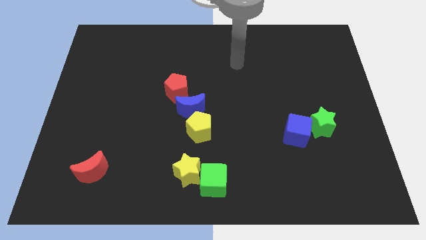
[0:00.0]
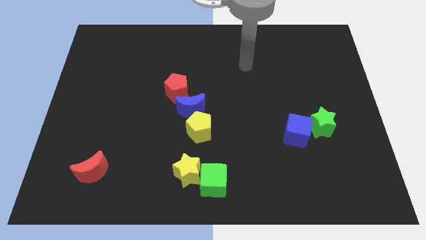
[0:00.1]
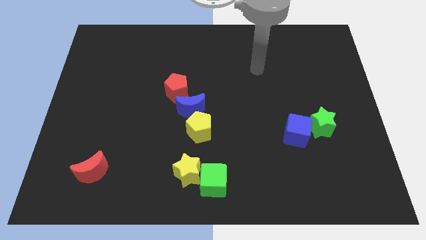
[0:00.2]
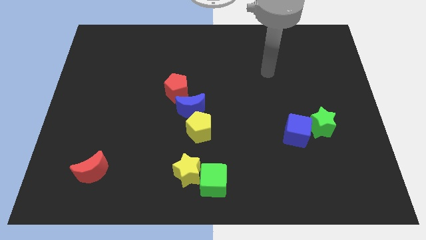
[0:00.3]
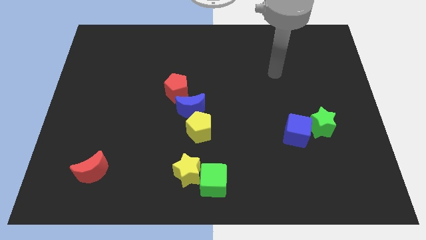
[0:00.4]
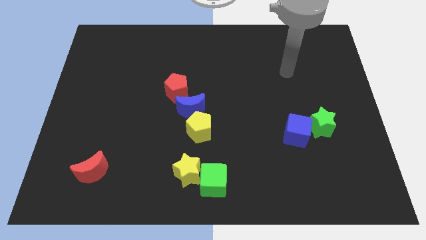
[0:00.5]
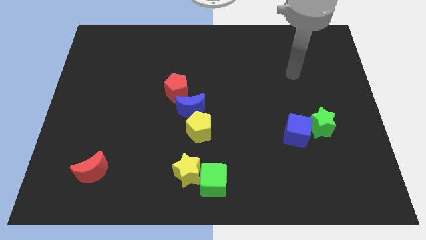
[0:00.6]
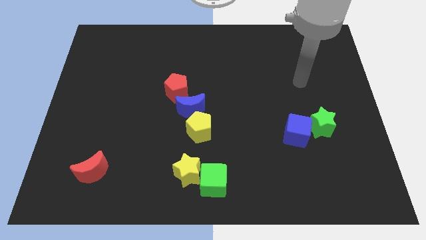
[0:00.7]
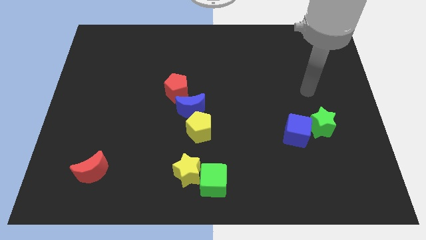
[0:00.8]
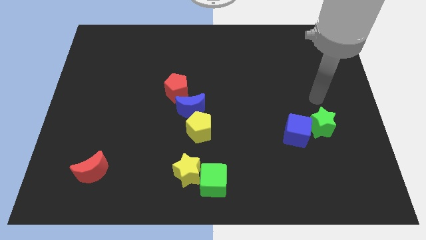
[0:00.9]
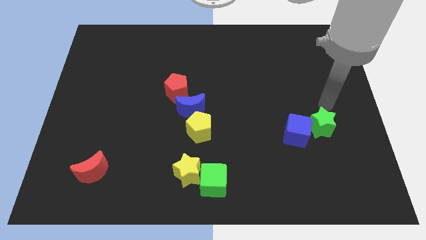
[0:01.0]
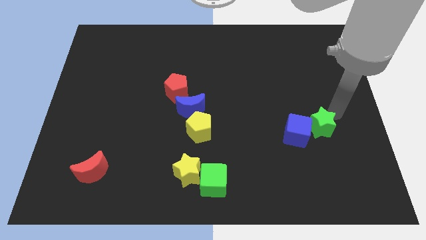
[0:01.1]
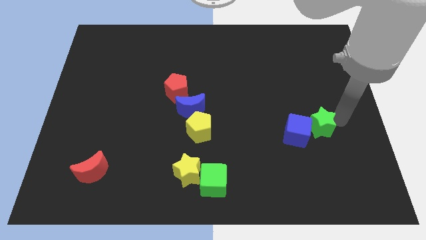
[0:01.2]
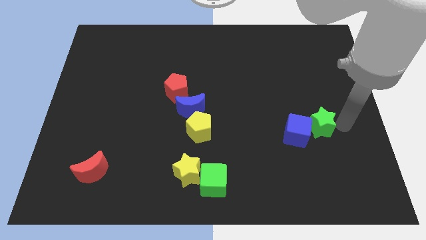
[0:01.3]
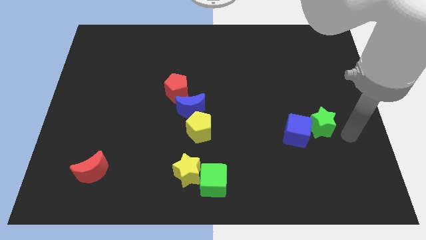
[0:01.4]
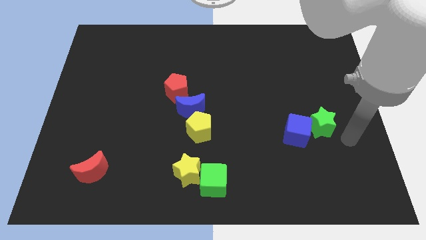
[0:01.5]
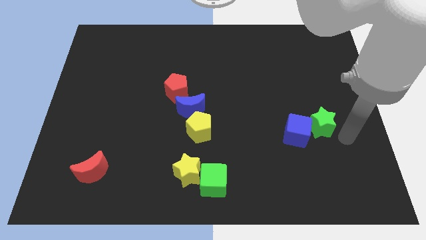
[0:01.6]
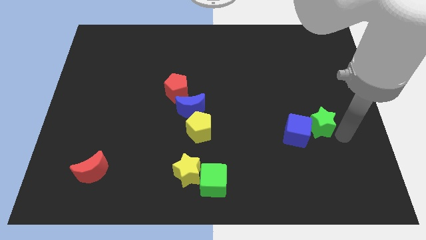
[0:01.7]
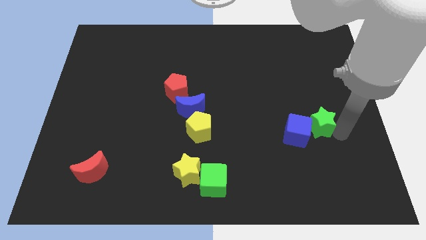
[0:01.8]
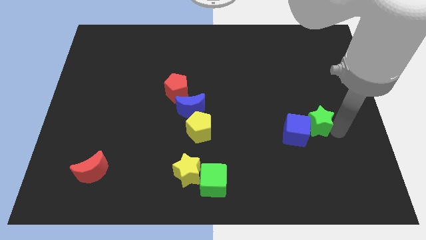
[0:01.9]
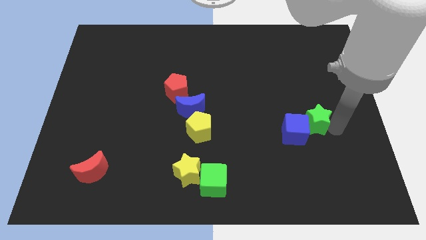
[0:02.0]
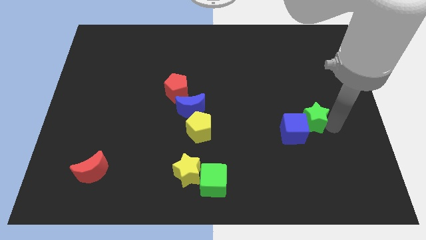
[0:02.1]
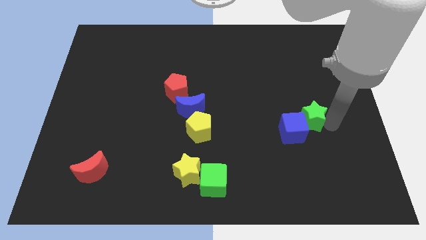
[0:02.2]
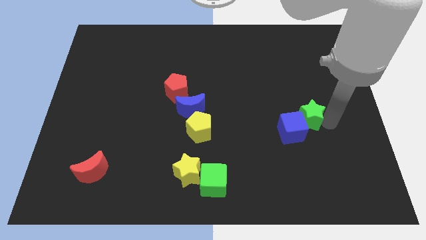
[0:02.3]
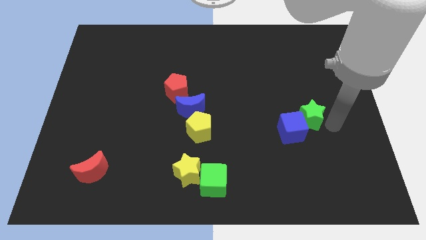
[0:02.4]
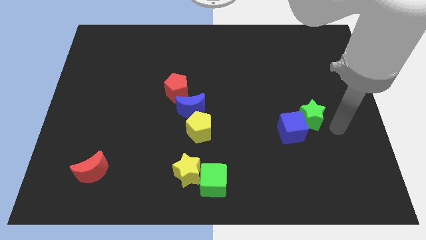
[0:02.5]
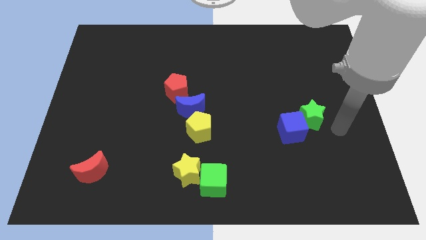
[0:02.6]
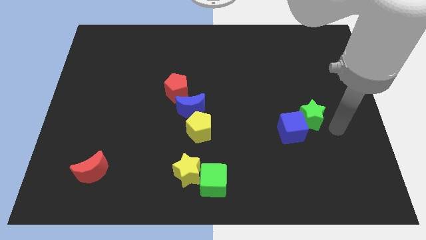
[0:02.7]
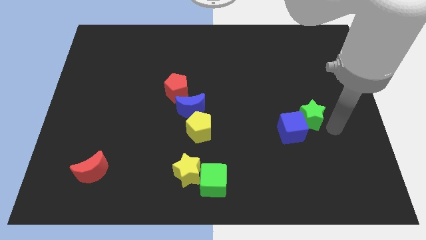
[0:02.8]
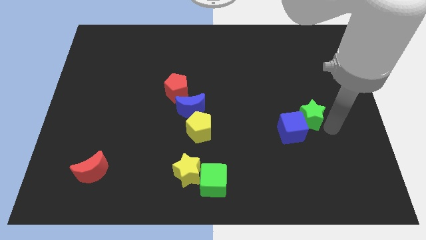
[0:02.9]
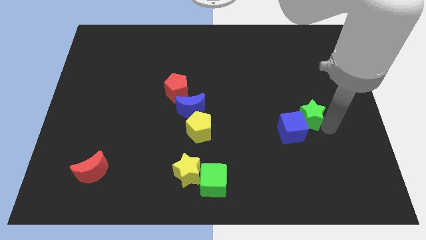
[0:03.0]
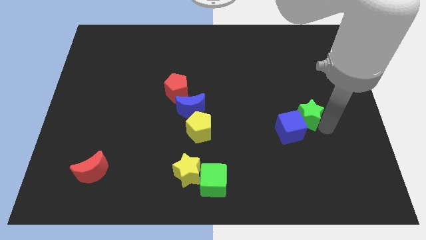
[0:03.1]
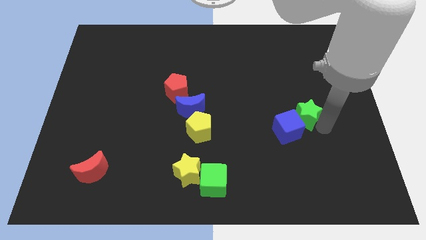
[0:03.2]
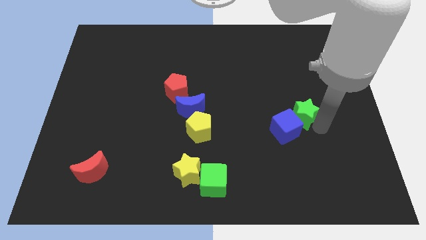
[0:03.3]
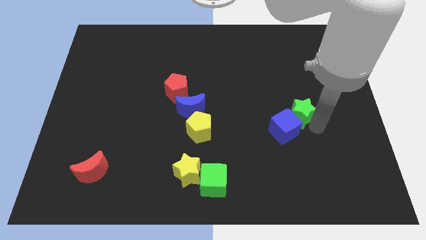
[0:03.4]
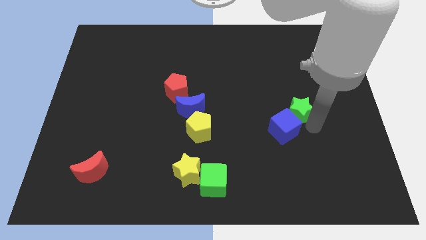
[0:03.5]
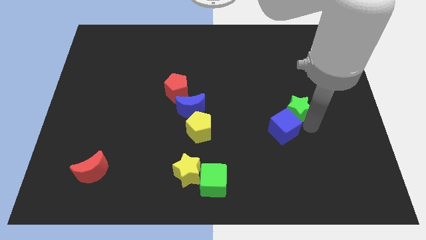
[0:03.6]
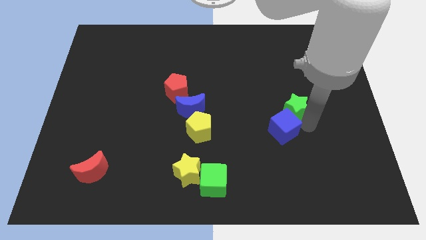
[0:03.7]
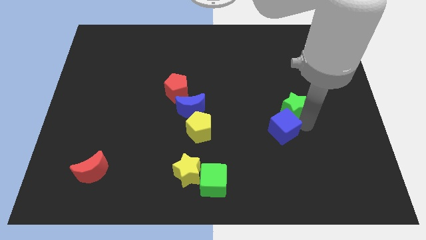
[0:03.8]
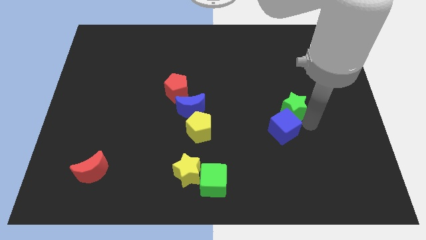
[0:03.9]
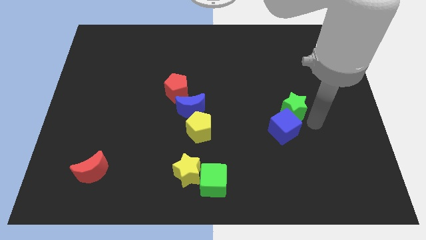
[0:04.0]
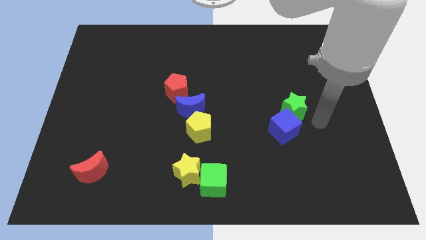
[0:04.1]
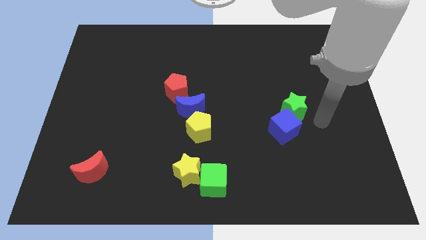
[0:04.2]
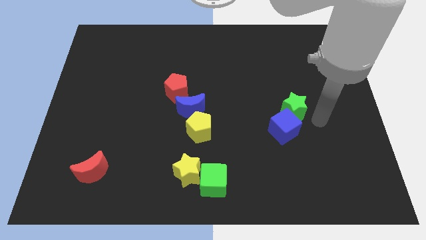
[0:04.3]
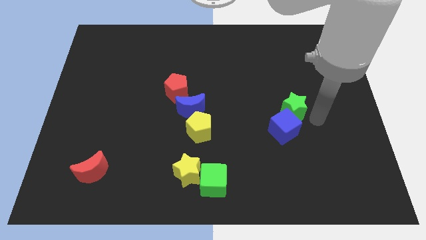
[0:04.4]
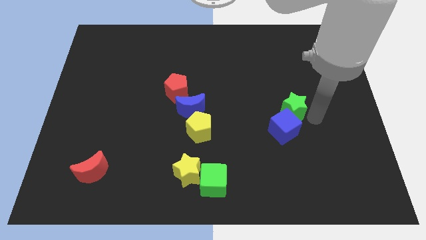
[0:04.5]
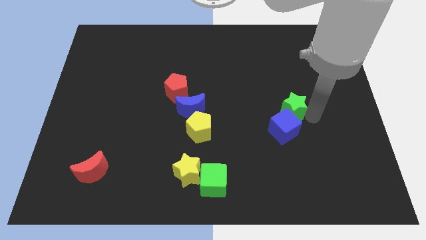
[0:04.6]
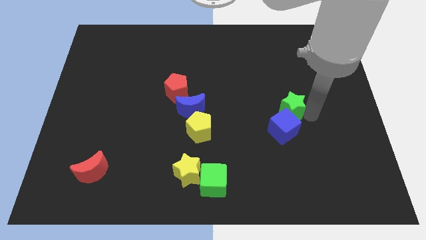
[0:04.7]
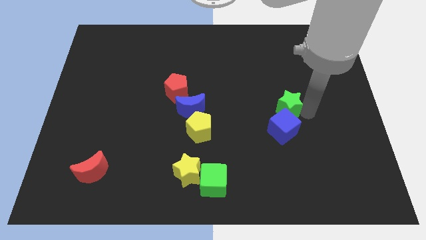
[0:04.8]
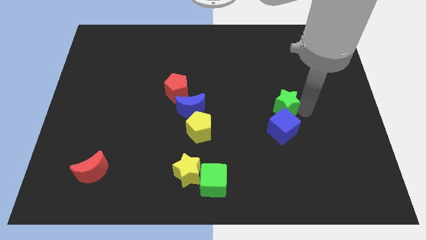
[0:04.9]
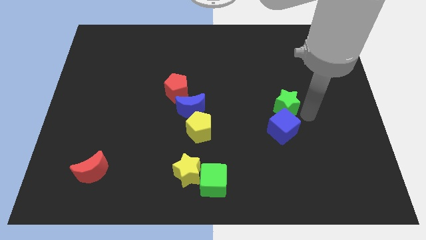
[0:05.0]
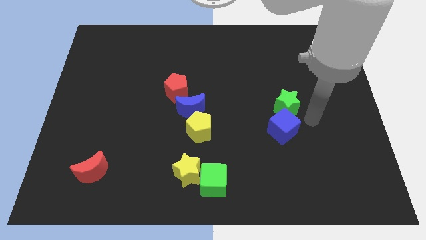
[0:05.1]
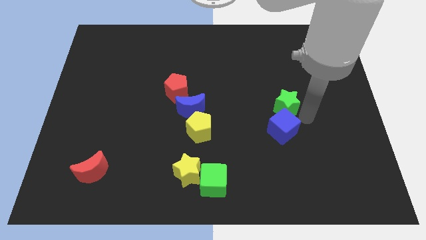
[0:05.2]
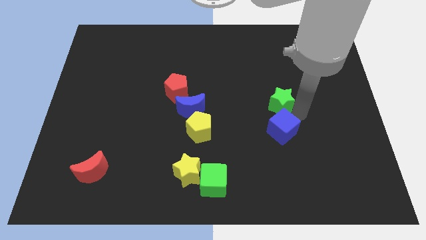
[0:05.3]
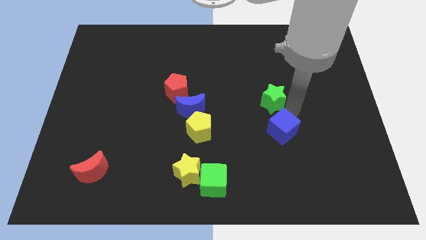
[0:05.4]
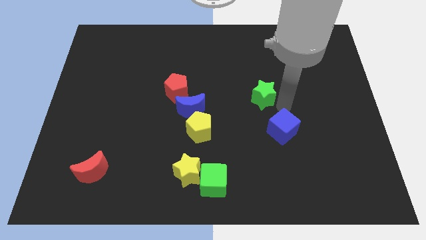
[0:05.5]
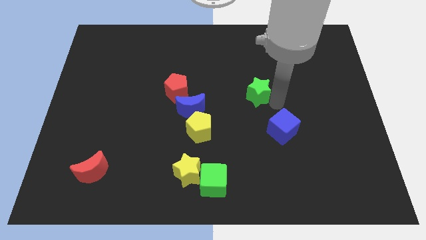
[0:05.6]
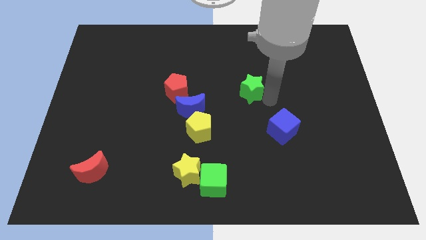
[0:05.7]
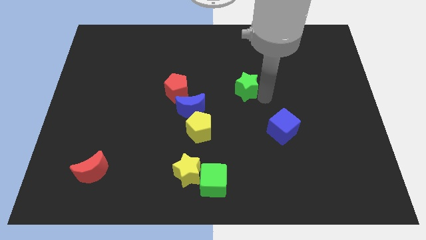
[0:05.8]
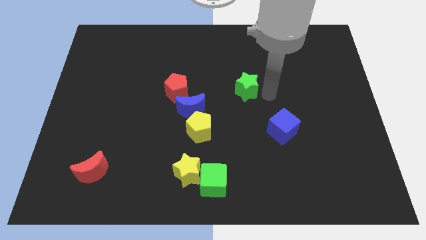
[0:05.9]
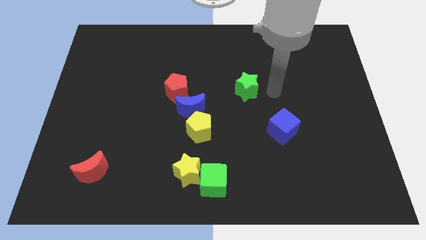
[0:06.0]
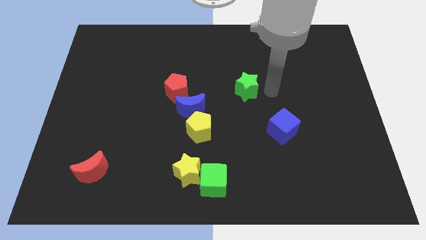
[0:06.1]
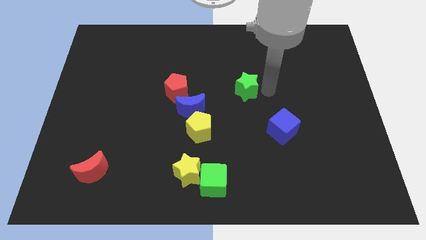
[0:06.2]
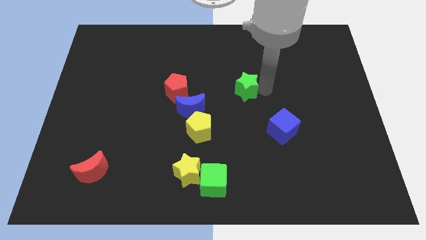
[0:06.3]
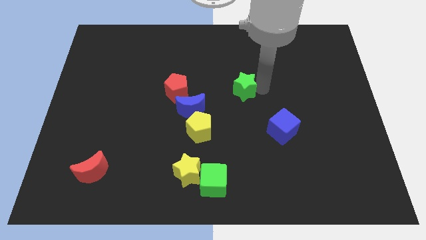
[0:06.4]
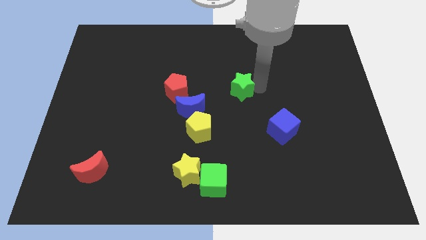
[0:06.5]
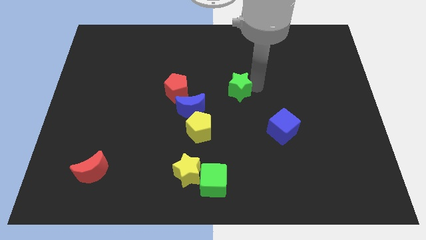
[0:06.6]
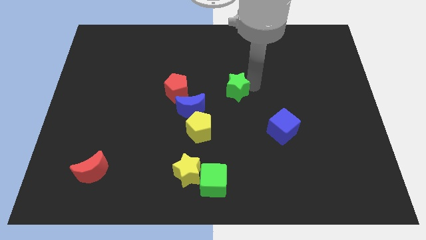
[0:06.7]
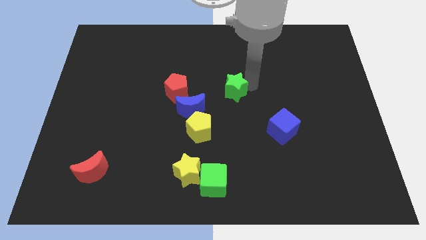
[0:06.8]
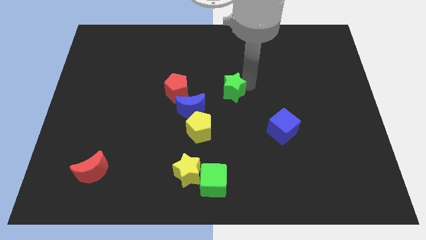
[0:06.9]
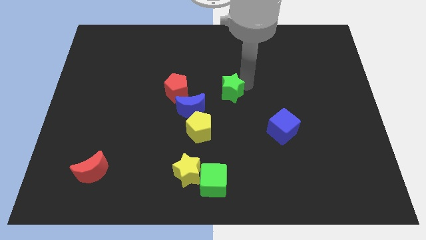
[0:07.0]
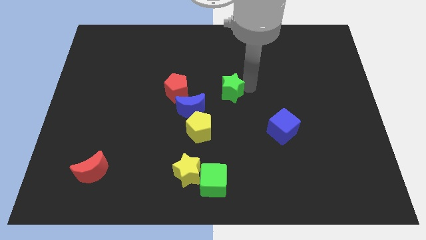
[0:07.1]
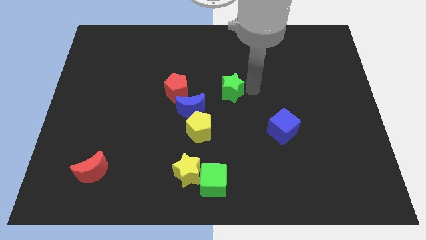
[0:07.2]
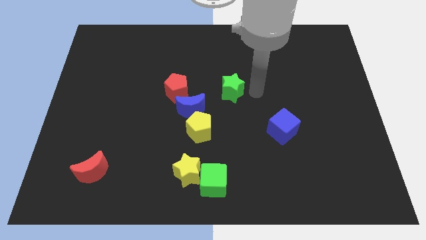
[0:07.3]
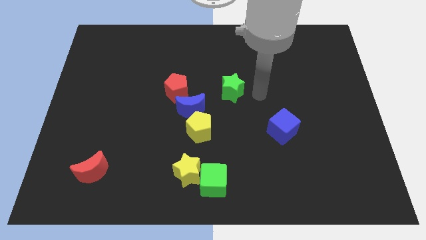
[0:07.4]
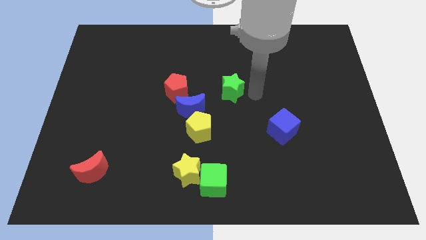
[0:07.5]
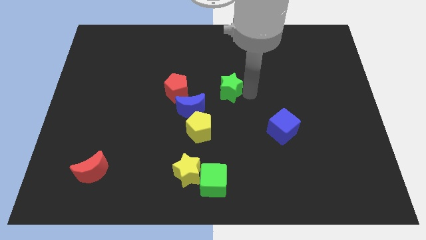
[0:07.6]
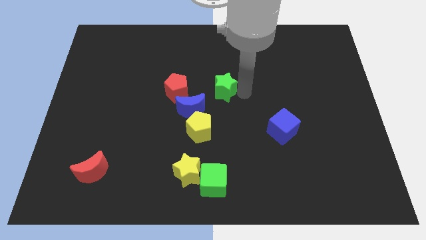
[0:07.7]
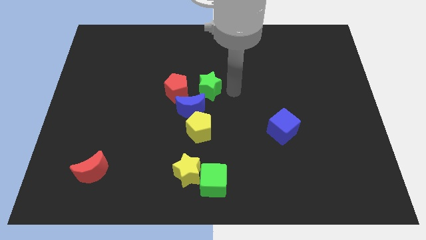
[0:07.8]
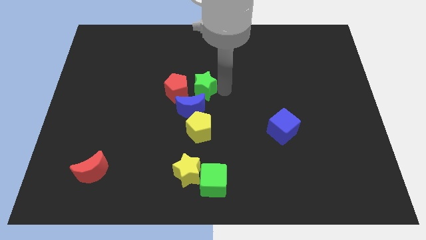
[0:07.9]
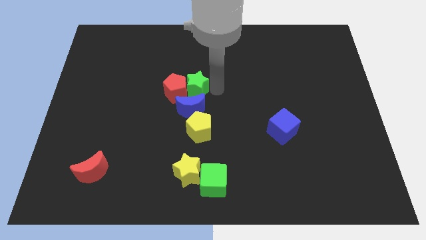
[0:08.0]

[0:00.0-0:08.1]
put the green star close to the red pentagon
